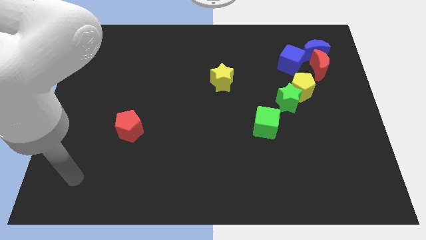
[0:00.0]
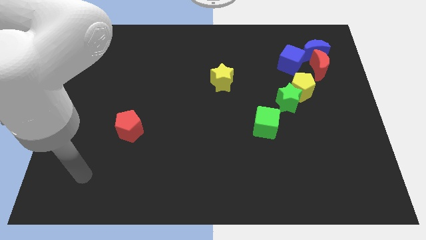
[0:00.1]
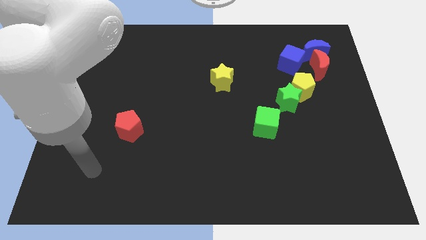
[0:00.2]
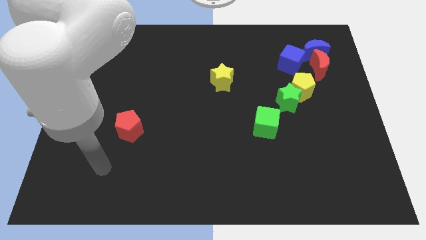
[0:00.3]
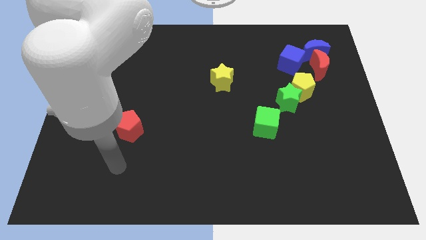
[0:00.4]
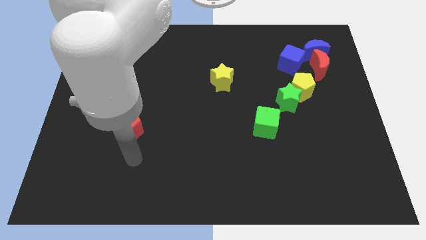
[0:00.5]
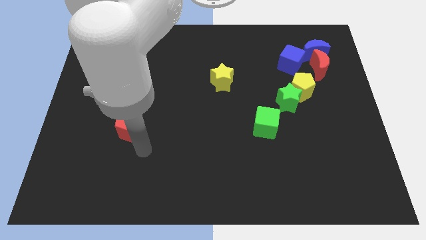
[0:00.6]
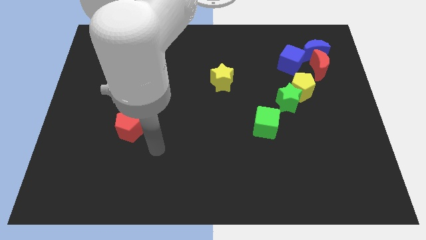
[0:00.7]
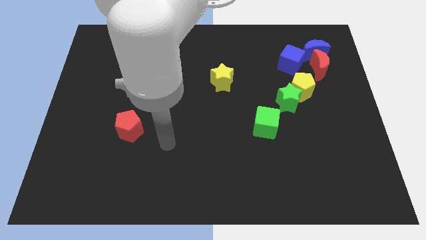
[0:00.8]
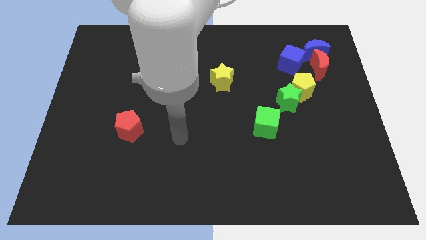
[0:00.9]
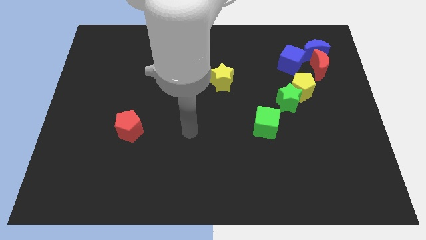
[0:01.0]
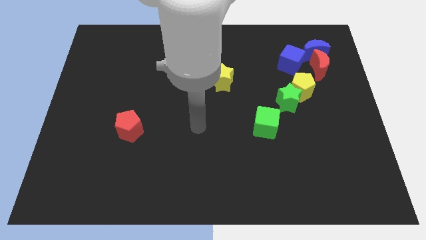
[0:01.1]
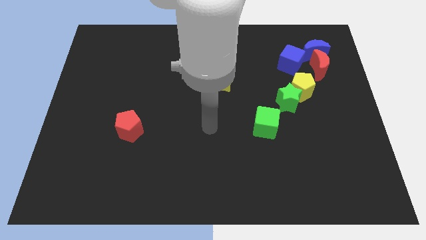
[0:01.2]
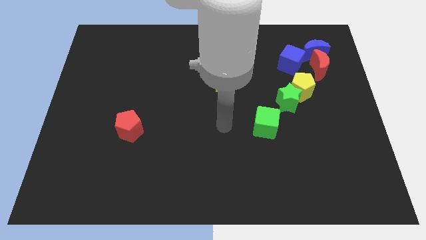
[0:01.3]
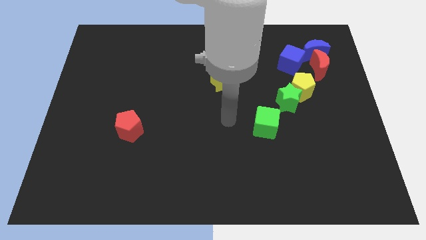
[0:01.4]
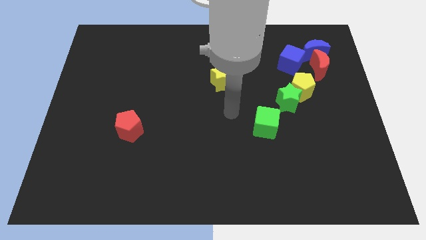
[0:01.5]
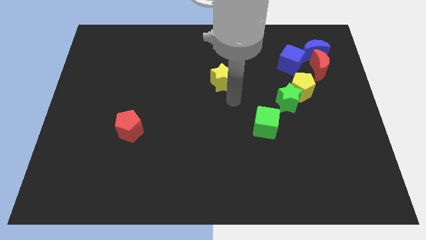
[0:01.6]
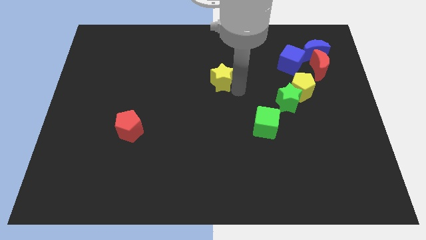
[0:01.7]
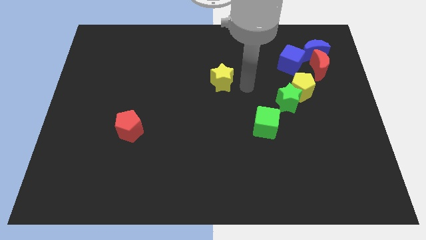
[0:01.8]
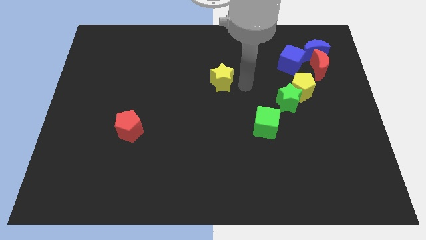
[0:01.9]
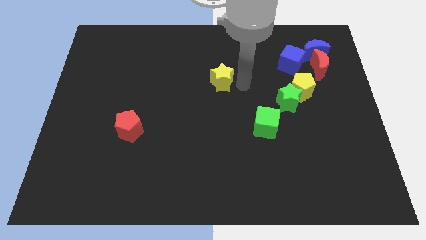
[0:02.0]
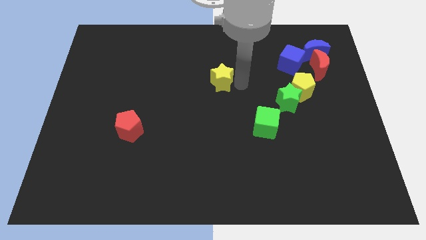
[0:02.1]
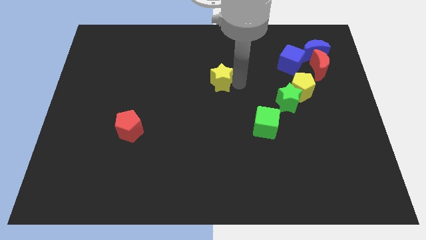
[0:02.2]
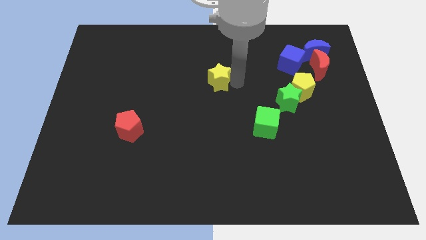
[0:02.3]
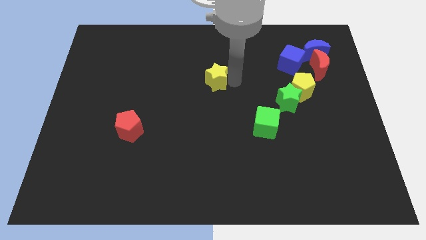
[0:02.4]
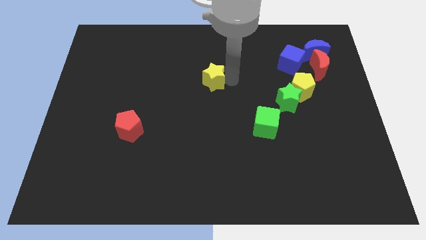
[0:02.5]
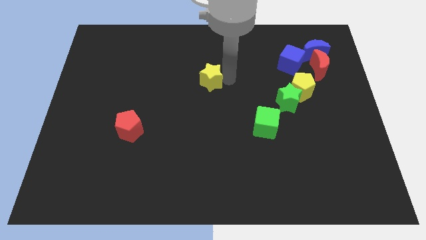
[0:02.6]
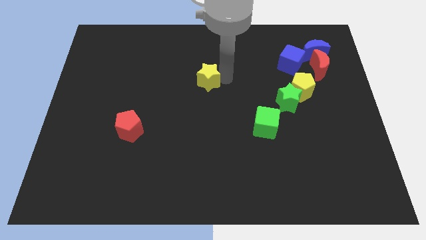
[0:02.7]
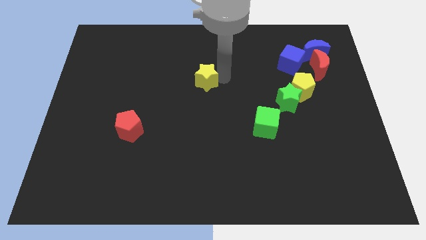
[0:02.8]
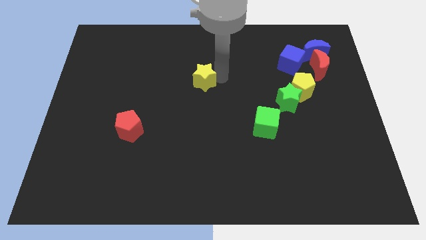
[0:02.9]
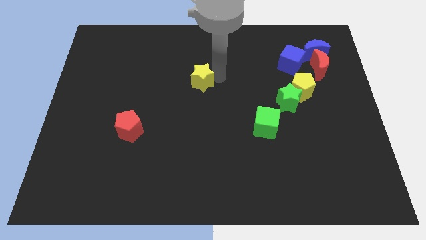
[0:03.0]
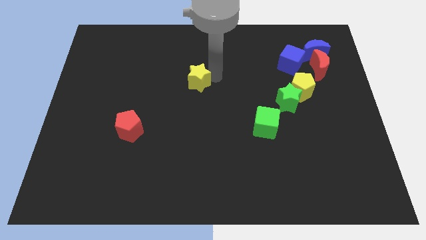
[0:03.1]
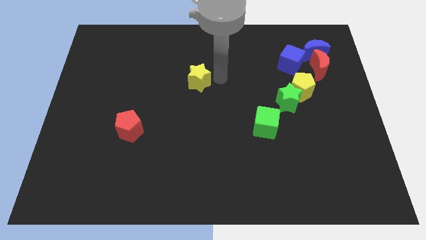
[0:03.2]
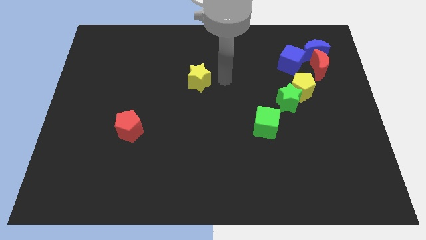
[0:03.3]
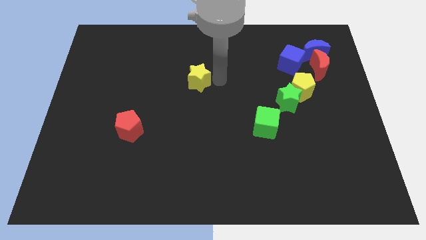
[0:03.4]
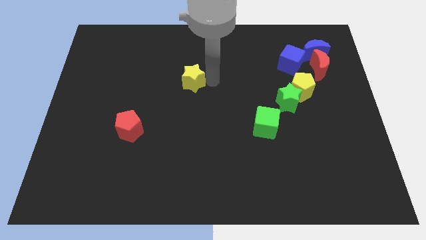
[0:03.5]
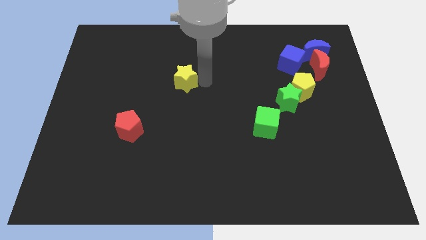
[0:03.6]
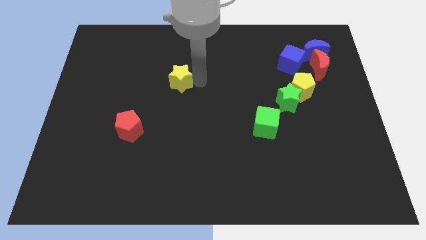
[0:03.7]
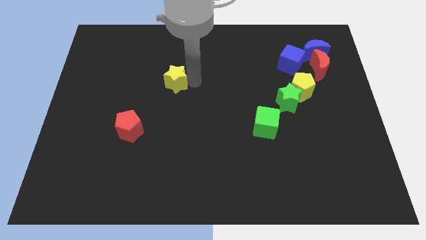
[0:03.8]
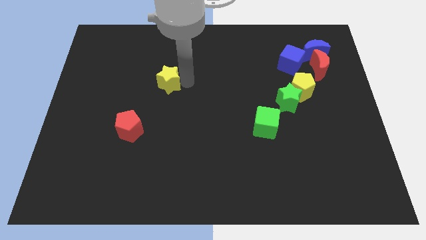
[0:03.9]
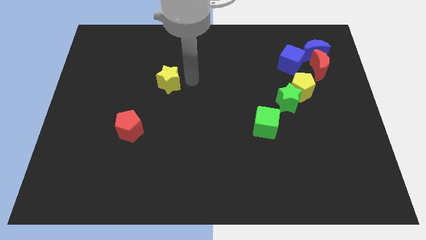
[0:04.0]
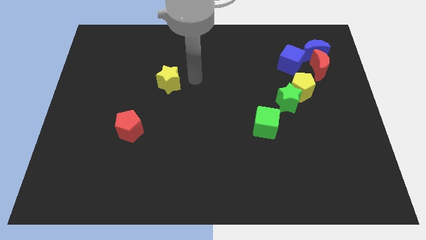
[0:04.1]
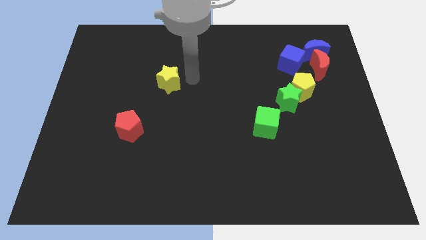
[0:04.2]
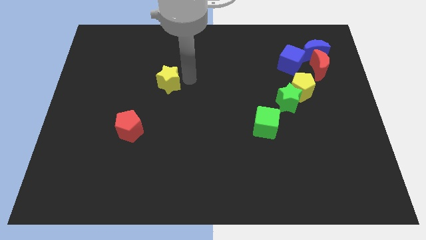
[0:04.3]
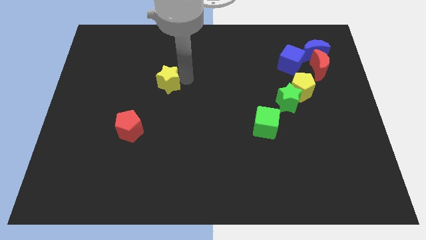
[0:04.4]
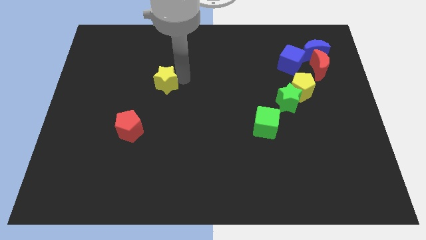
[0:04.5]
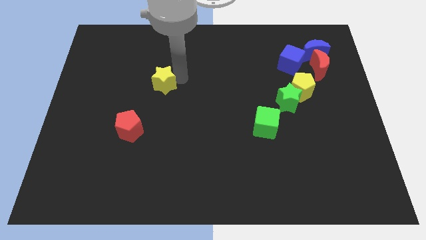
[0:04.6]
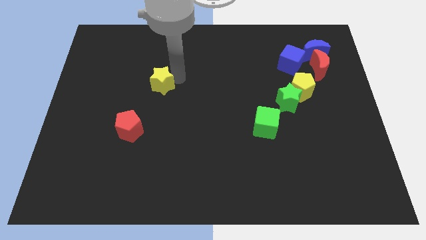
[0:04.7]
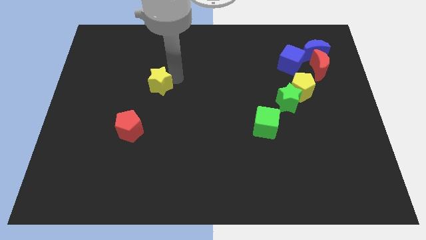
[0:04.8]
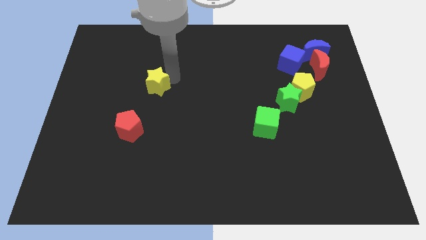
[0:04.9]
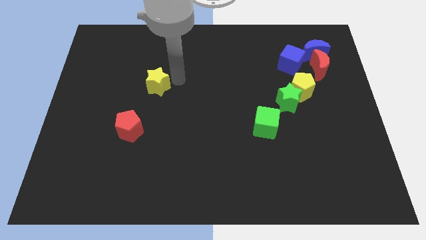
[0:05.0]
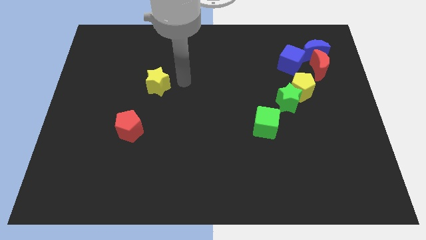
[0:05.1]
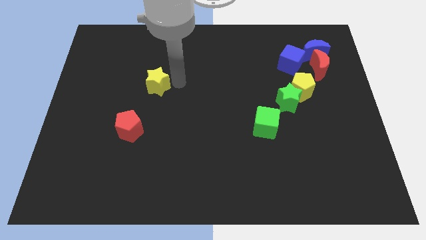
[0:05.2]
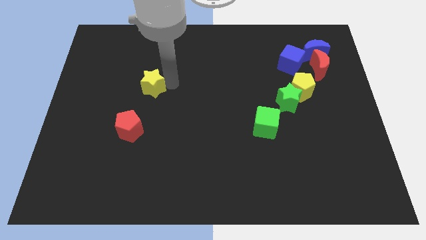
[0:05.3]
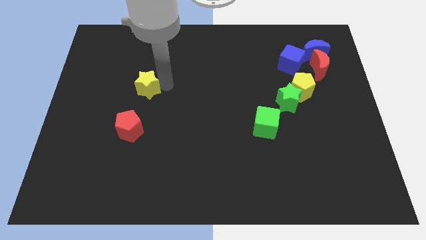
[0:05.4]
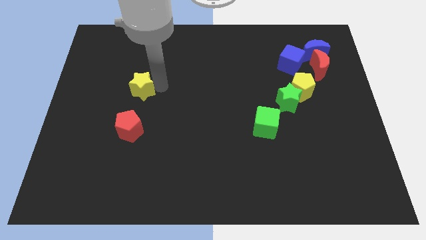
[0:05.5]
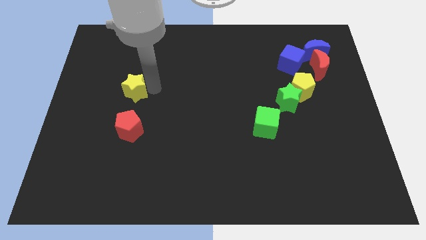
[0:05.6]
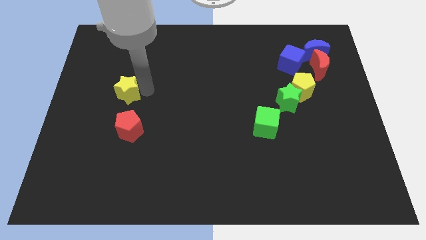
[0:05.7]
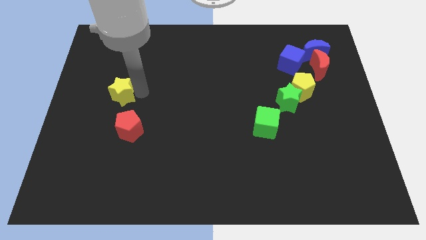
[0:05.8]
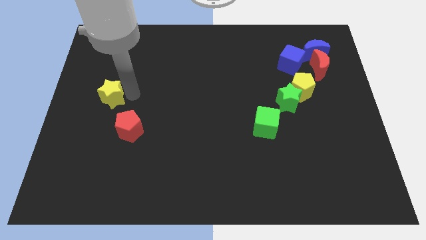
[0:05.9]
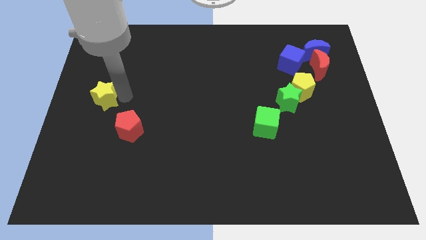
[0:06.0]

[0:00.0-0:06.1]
move the yellow star to the center left

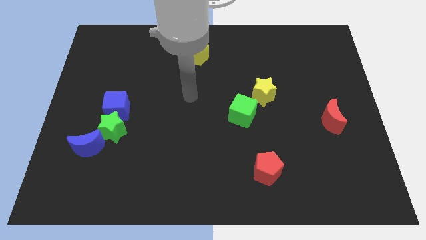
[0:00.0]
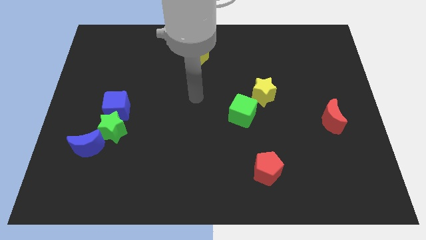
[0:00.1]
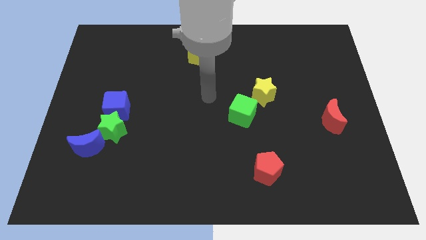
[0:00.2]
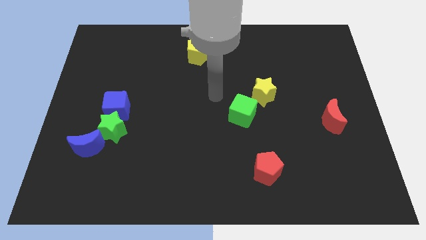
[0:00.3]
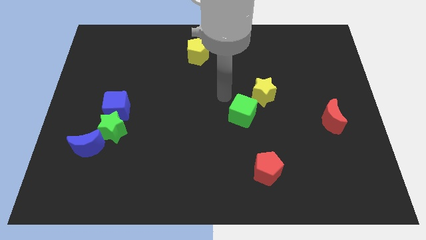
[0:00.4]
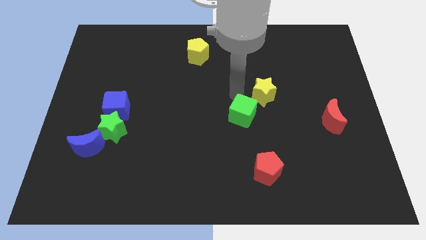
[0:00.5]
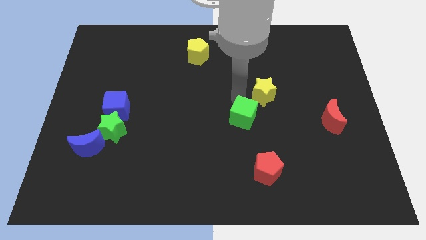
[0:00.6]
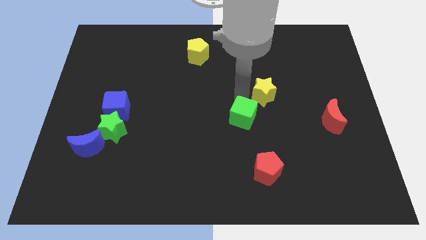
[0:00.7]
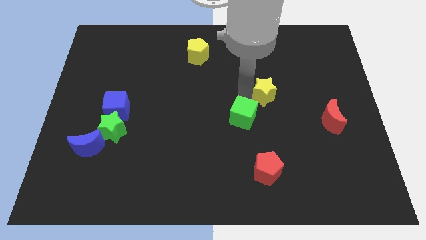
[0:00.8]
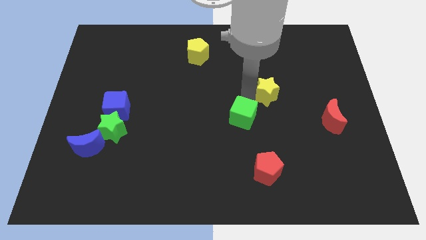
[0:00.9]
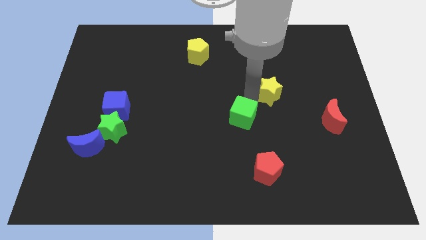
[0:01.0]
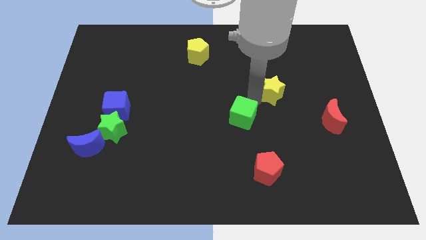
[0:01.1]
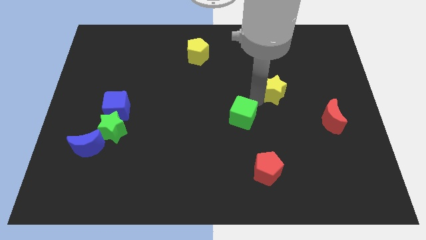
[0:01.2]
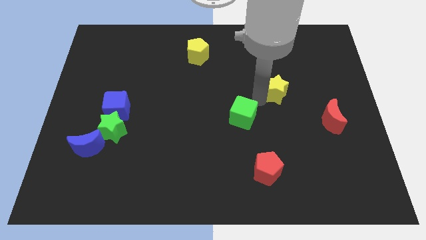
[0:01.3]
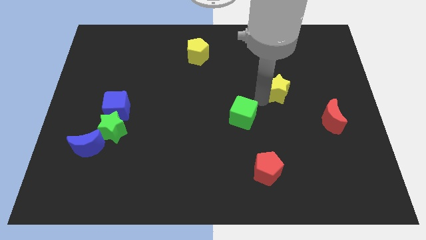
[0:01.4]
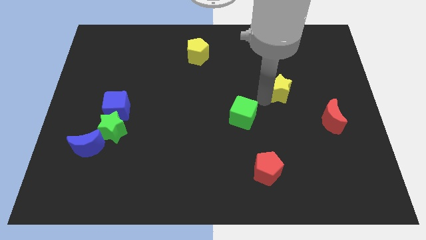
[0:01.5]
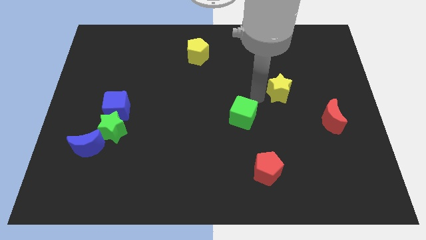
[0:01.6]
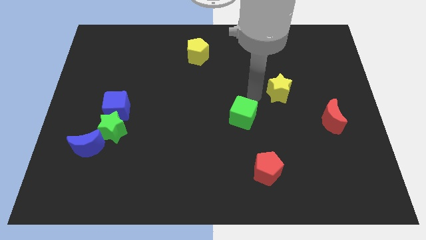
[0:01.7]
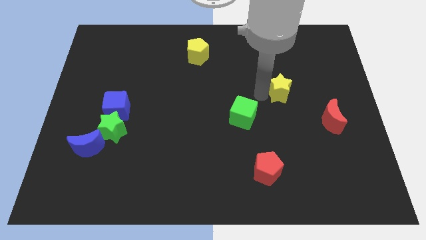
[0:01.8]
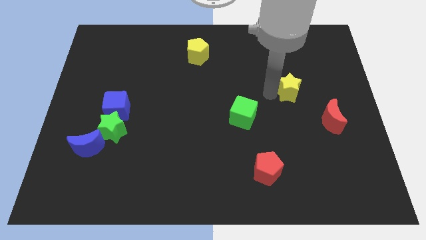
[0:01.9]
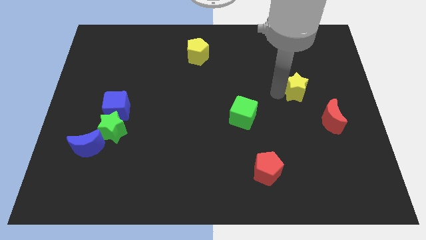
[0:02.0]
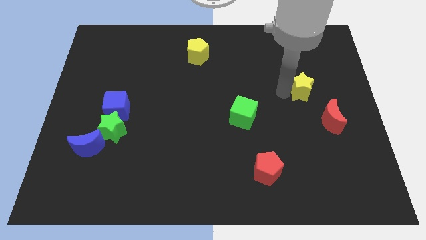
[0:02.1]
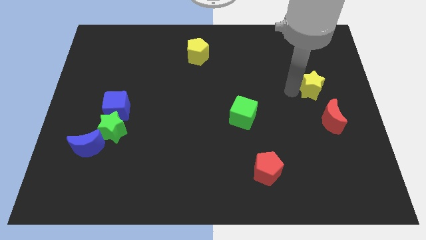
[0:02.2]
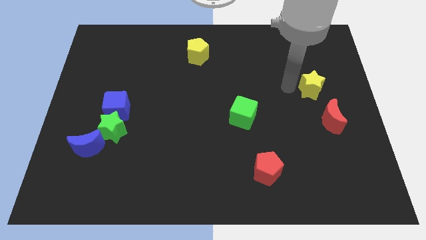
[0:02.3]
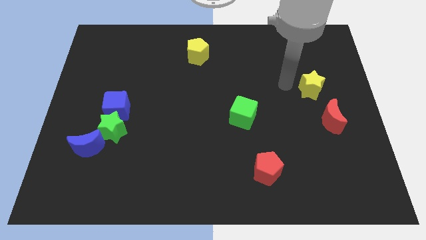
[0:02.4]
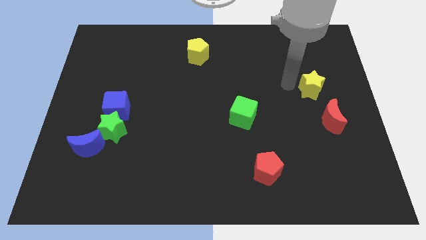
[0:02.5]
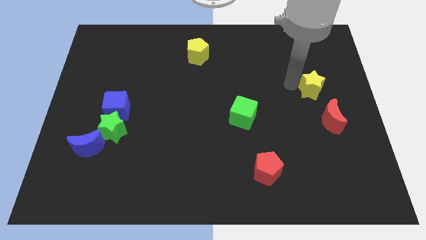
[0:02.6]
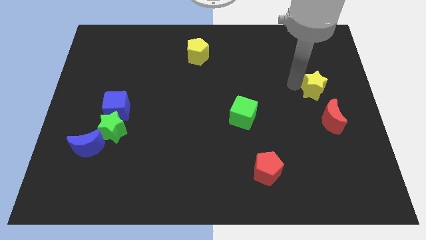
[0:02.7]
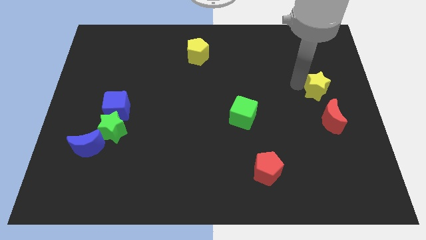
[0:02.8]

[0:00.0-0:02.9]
move the yellow star to the center right
